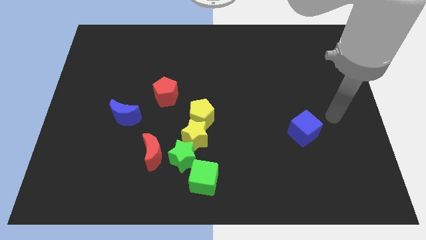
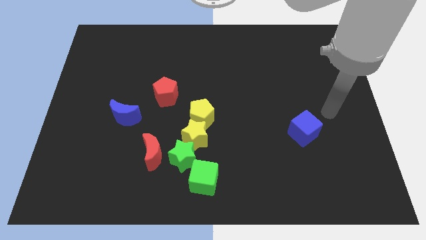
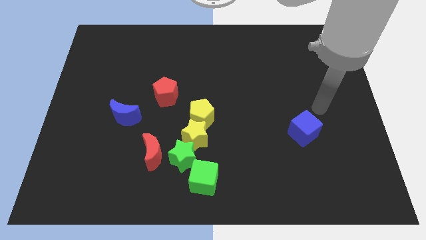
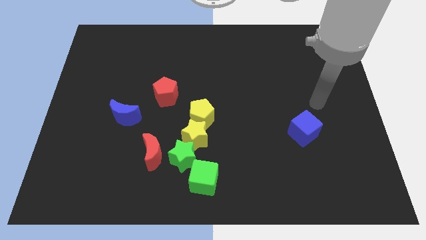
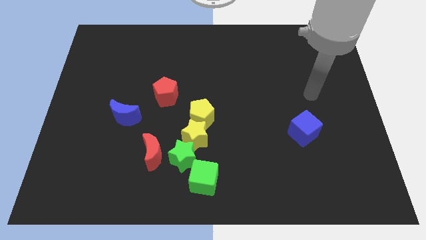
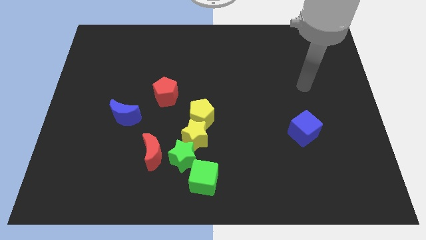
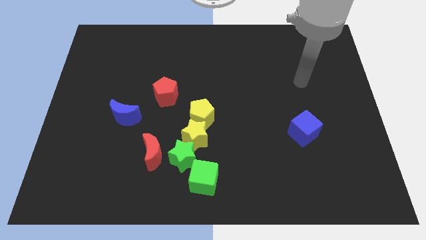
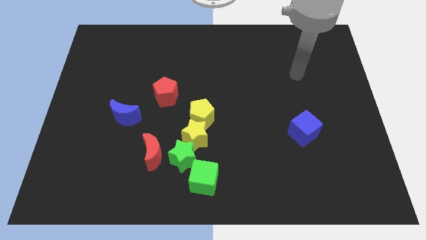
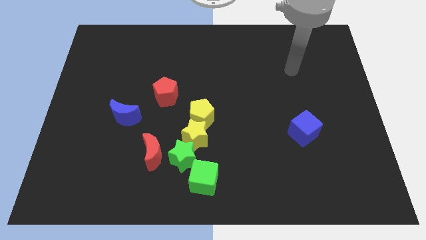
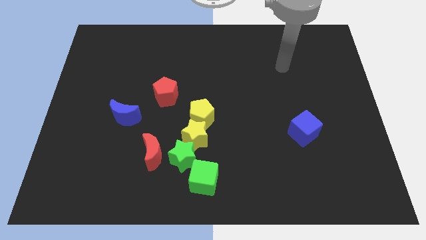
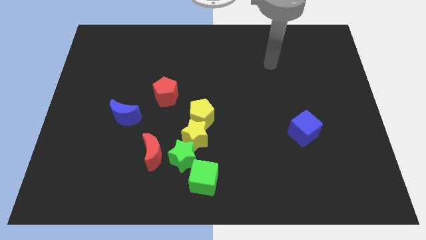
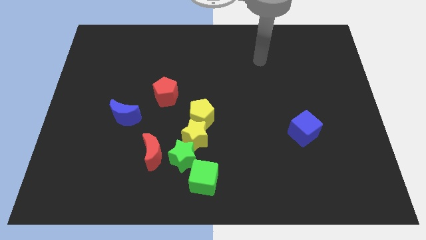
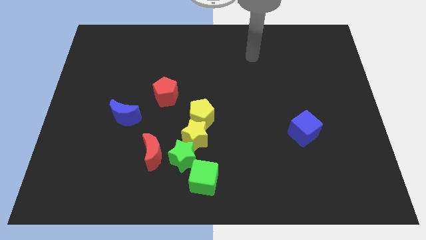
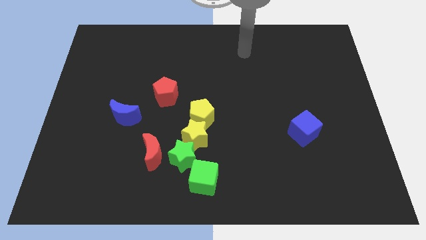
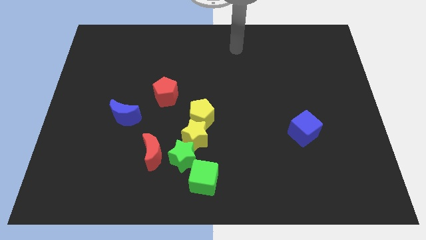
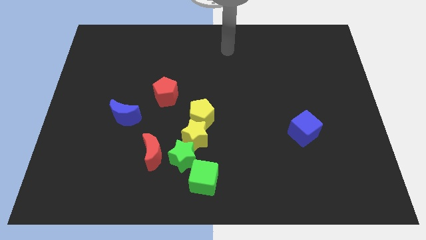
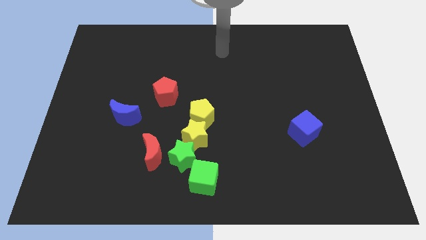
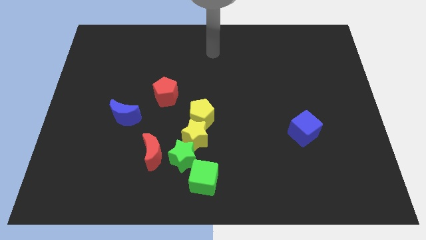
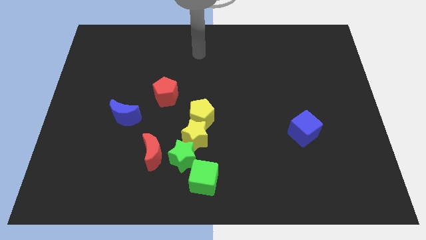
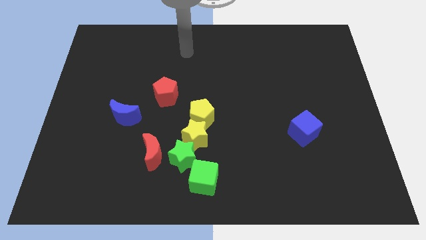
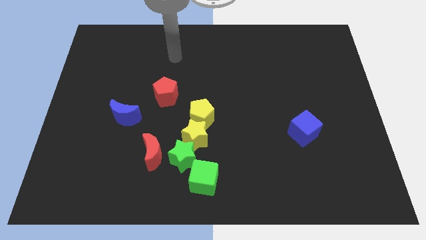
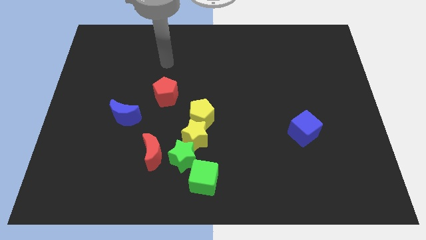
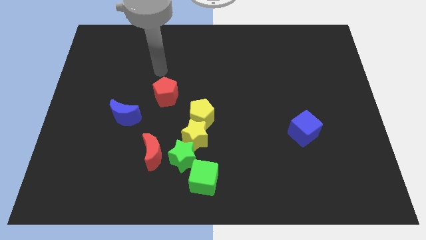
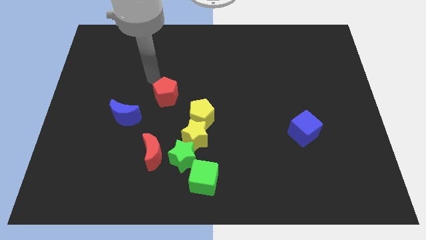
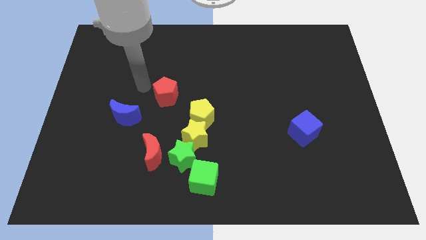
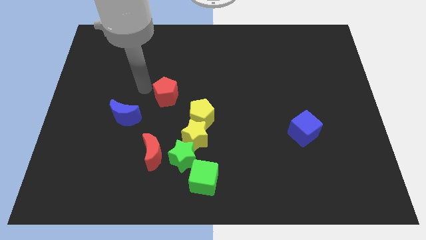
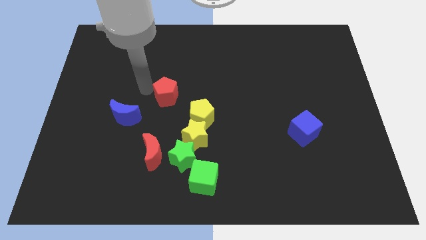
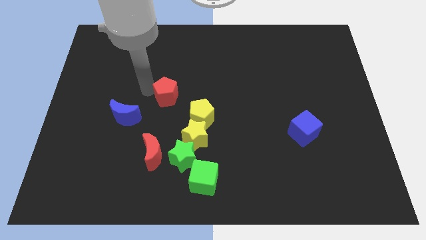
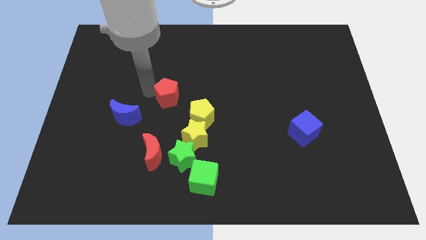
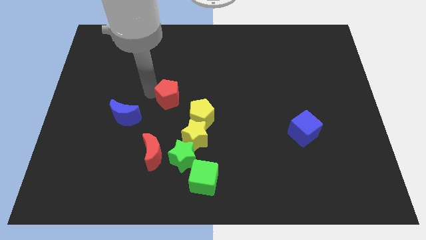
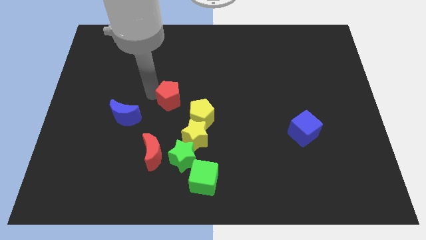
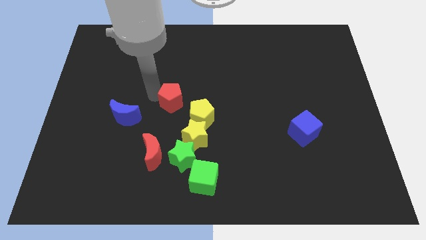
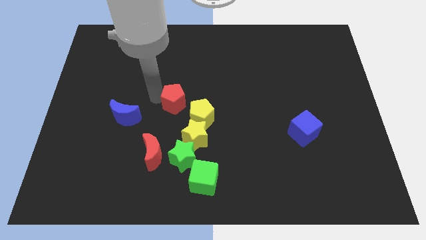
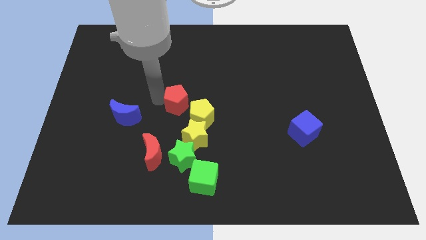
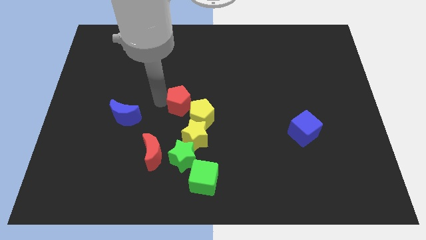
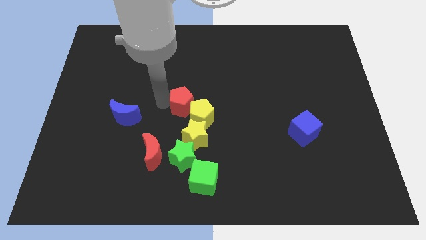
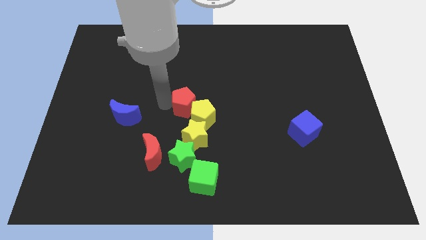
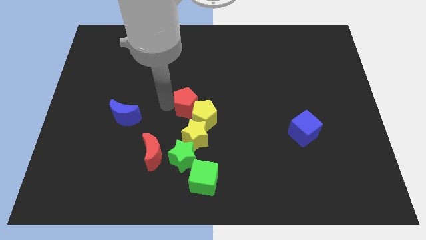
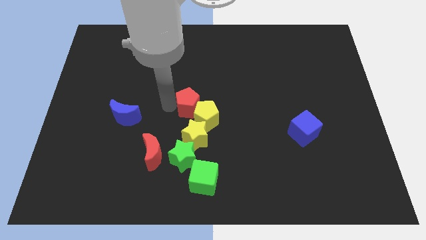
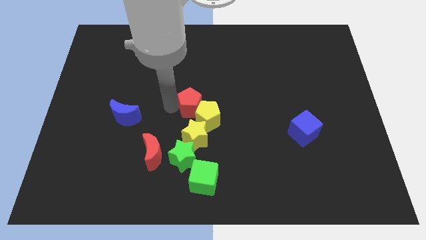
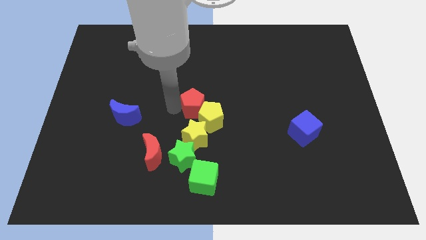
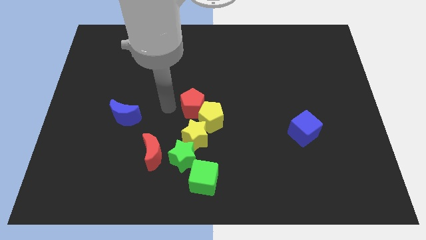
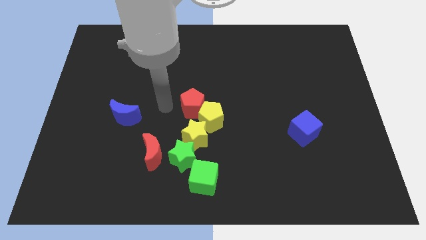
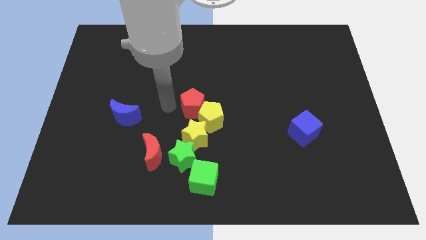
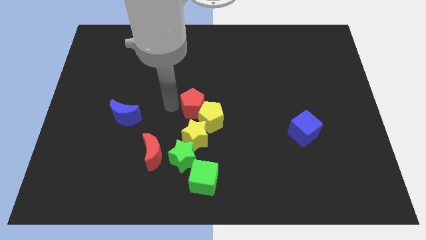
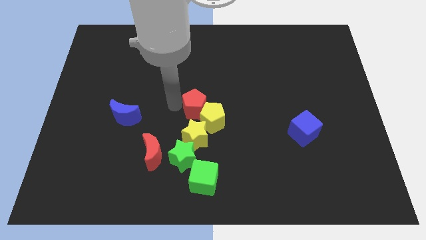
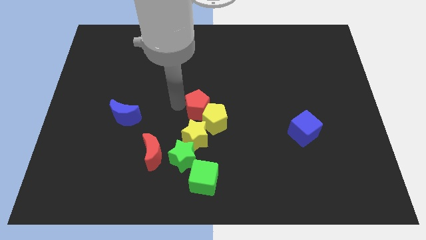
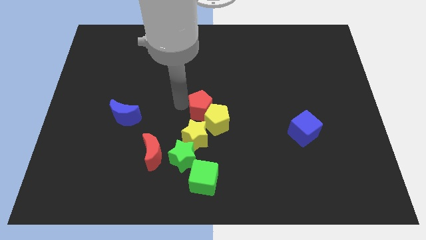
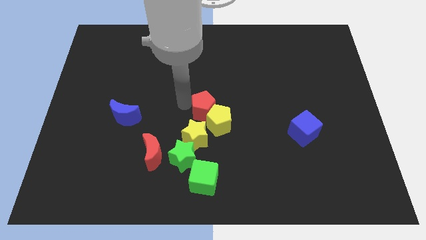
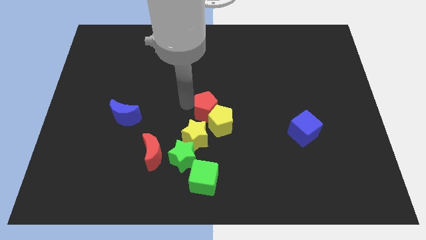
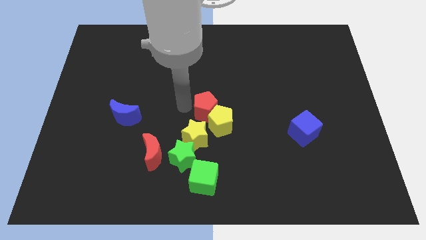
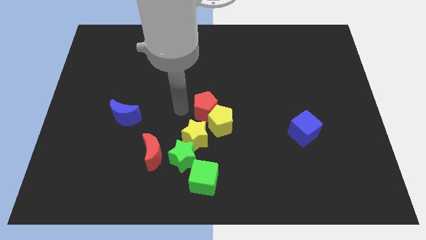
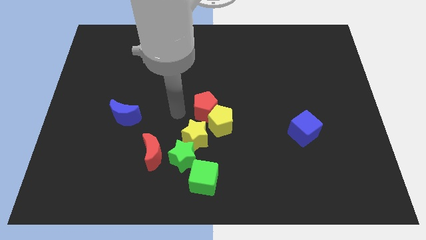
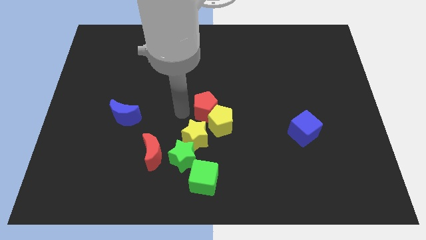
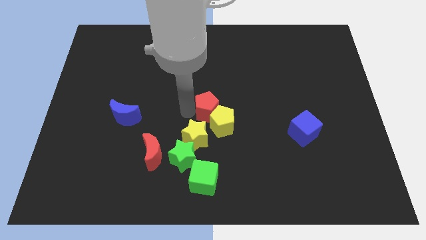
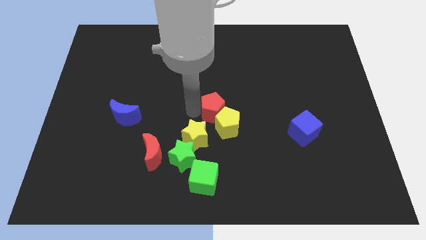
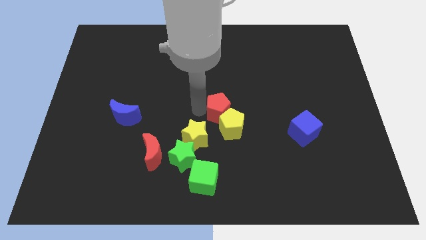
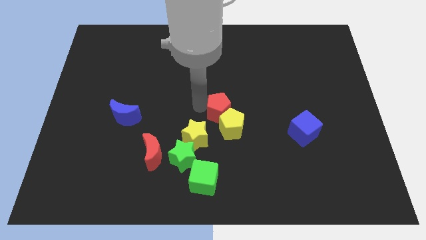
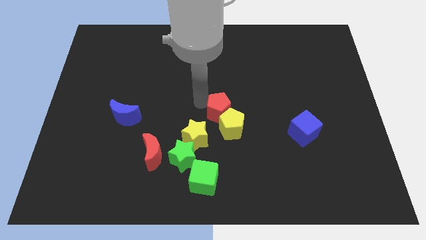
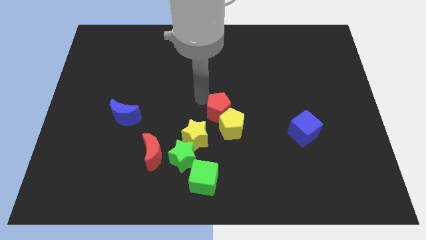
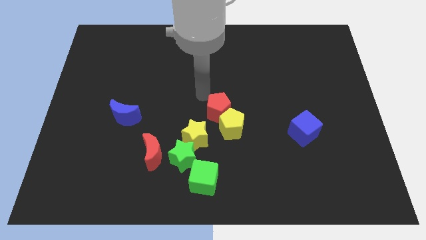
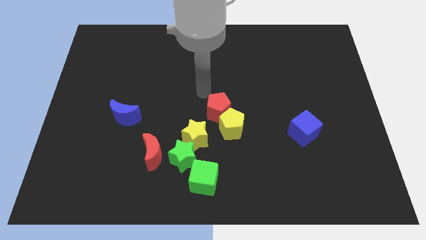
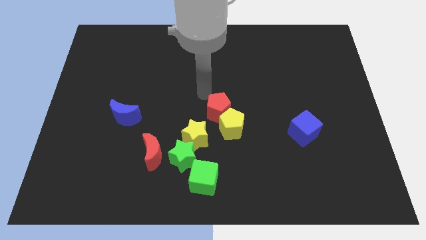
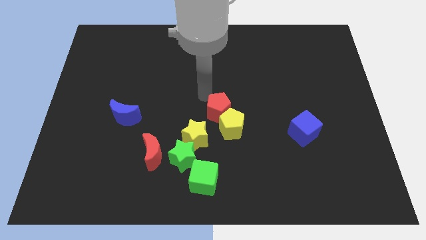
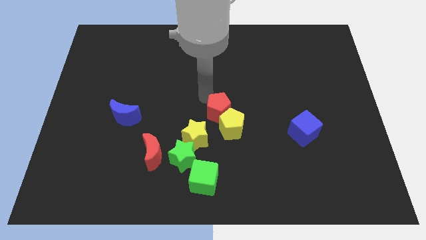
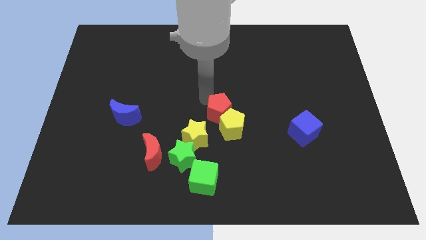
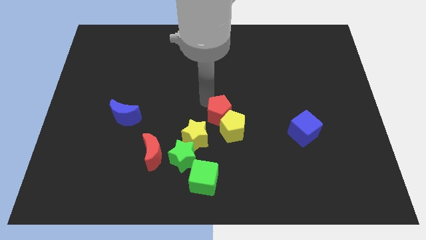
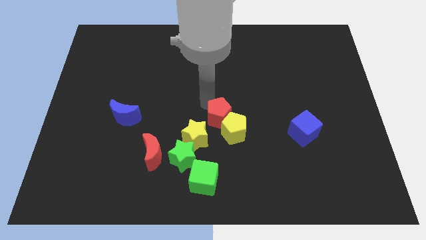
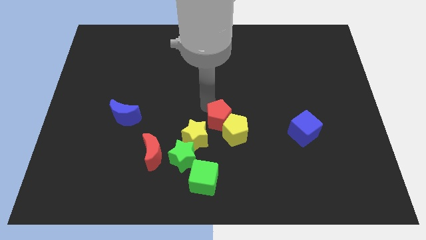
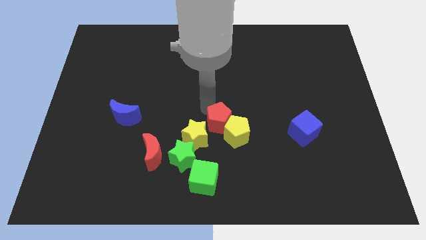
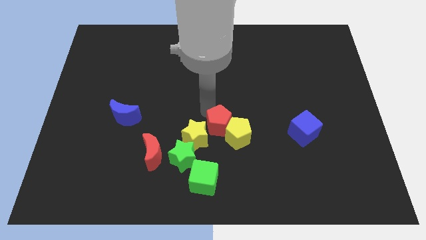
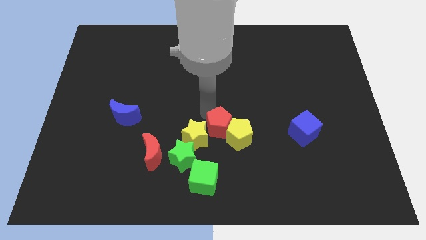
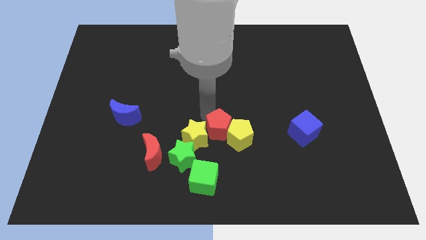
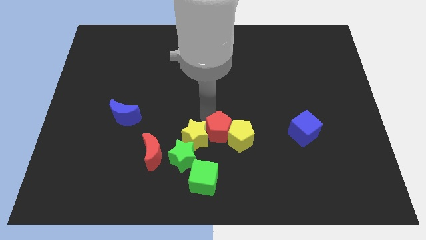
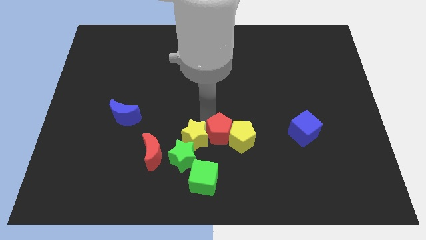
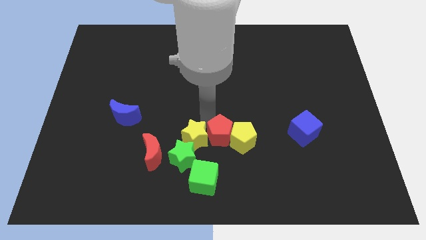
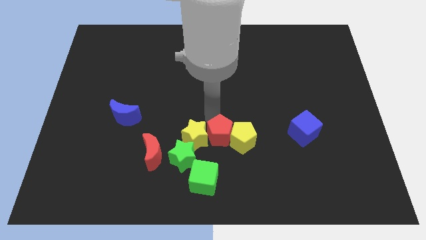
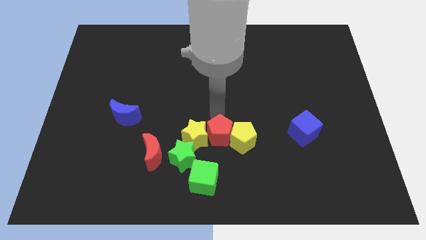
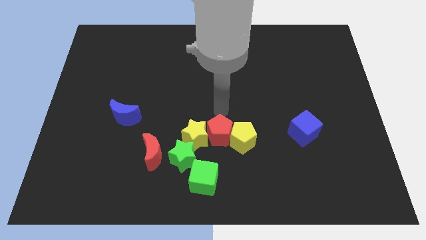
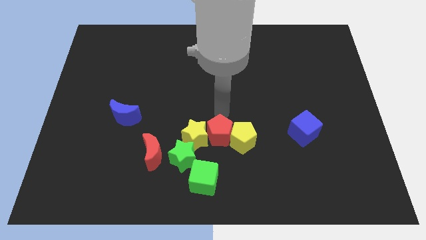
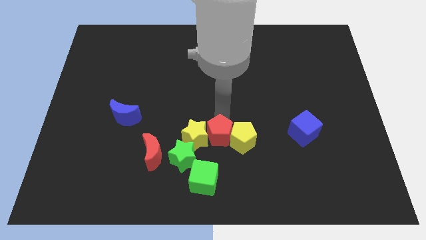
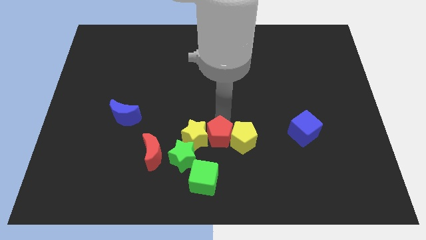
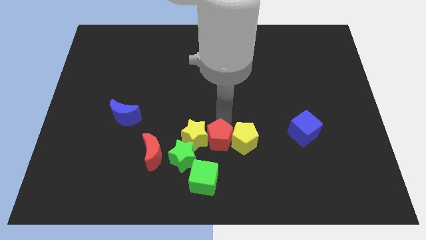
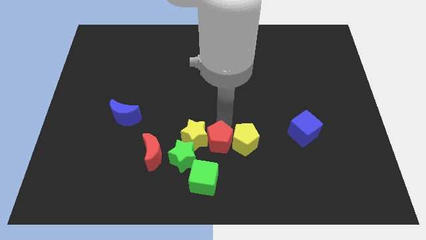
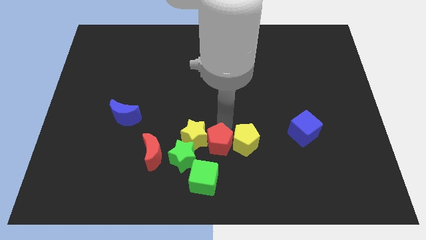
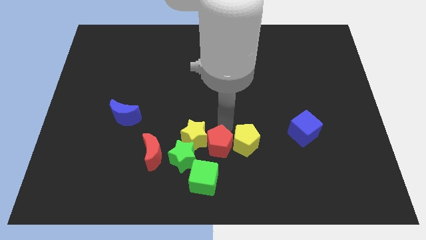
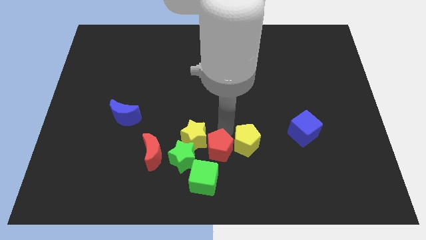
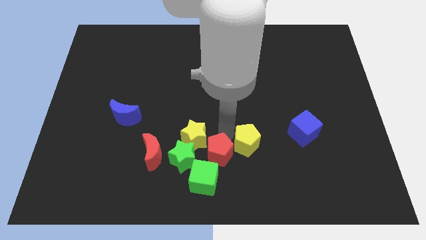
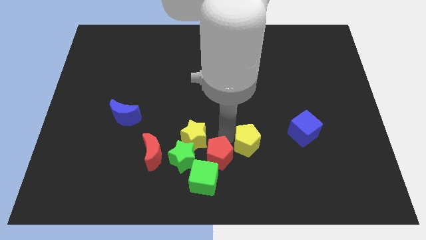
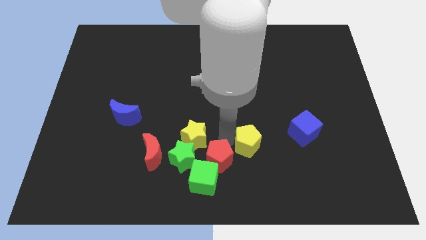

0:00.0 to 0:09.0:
move the red pentagon towards the green cube
